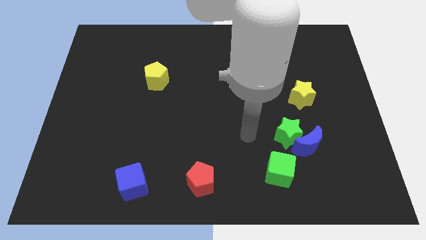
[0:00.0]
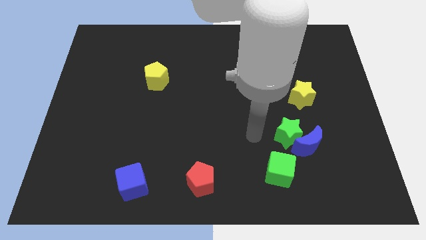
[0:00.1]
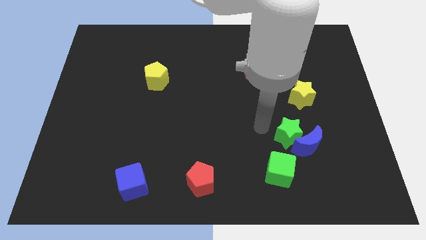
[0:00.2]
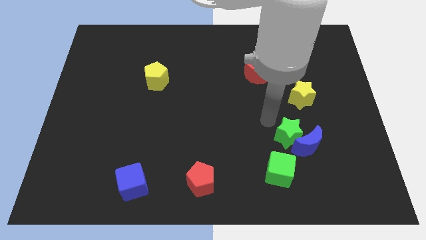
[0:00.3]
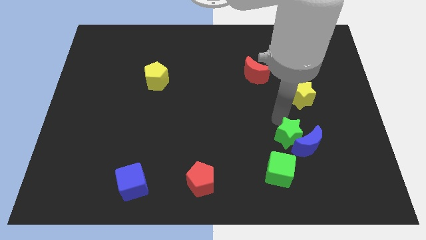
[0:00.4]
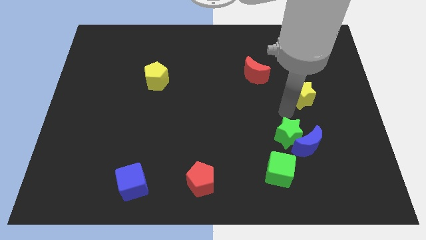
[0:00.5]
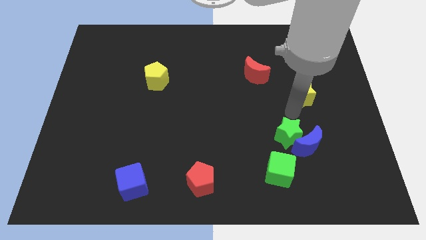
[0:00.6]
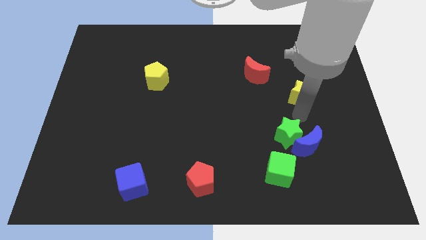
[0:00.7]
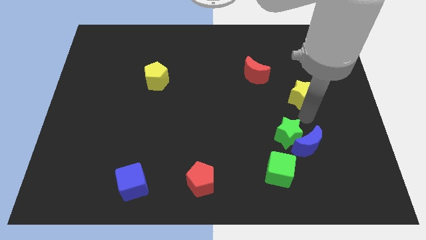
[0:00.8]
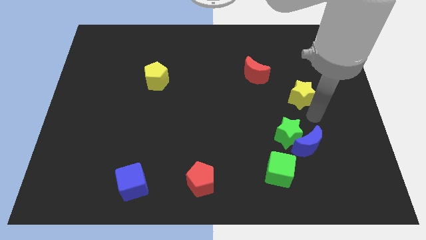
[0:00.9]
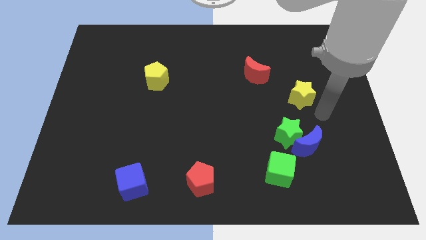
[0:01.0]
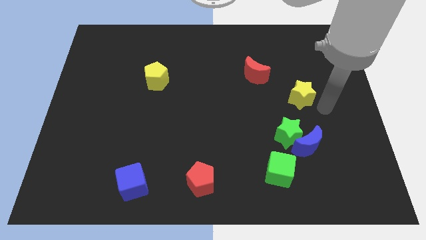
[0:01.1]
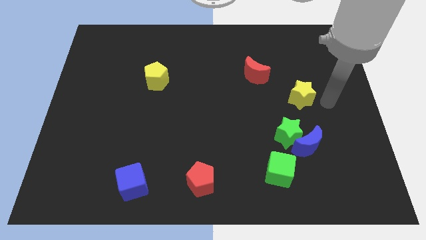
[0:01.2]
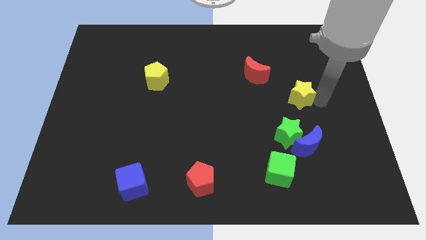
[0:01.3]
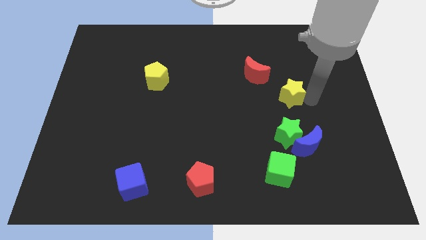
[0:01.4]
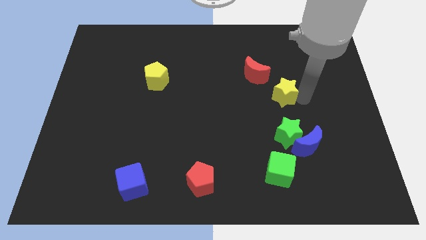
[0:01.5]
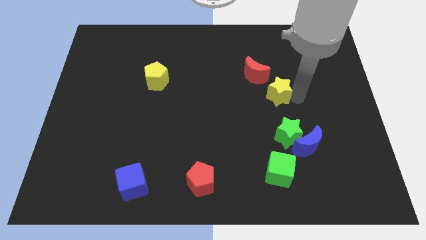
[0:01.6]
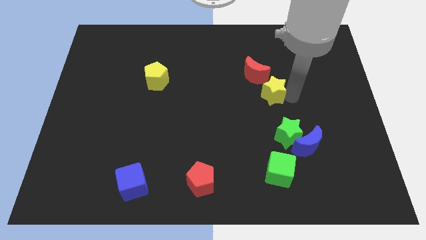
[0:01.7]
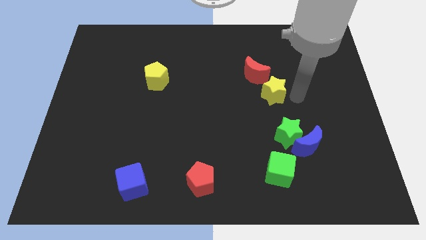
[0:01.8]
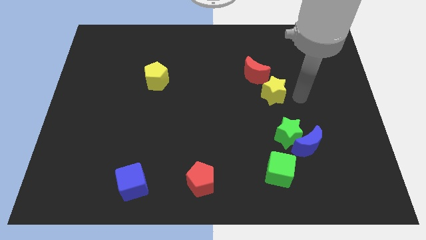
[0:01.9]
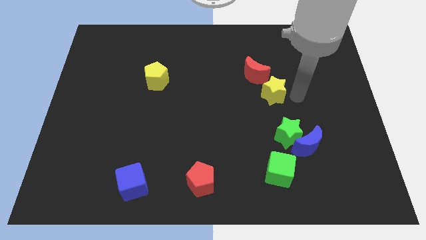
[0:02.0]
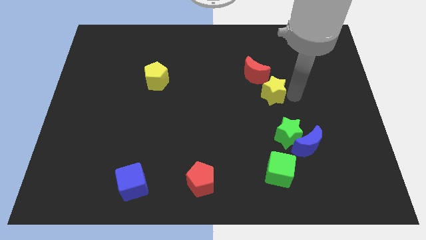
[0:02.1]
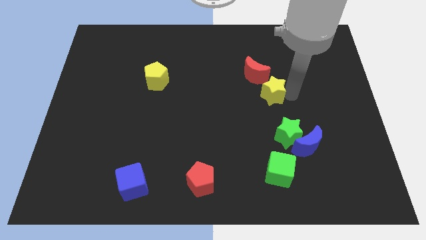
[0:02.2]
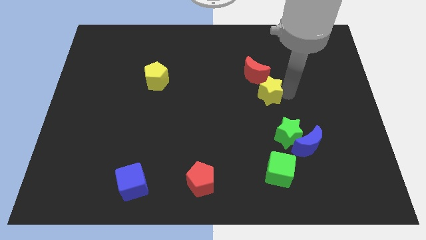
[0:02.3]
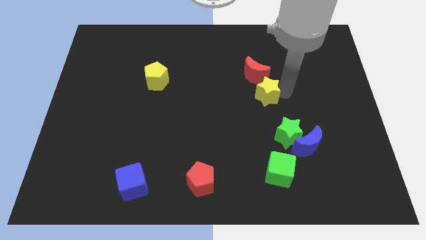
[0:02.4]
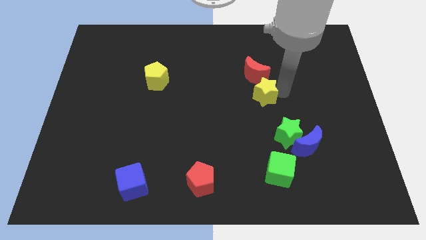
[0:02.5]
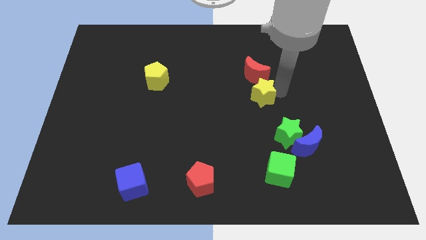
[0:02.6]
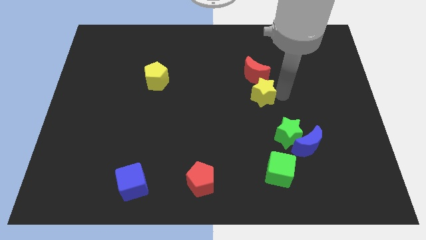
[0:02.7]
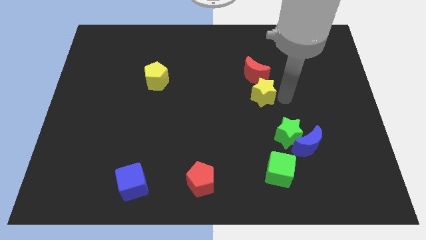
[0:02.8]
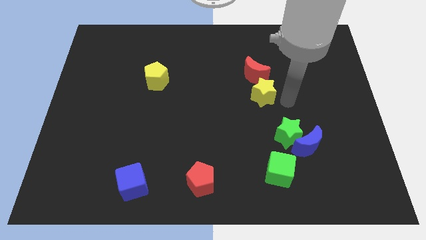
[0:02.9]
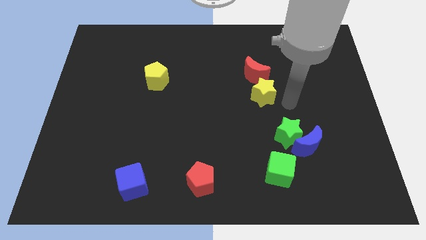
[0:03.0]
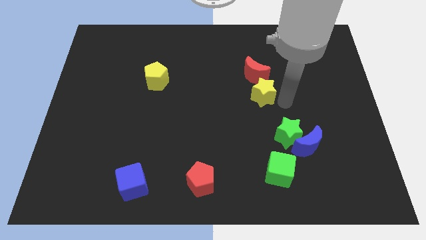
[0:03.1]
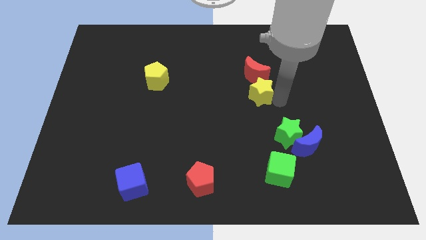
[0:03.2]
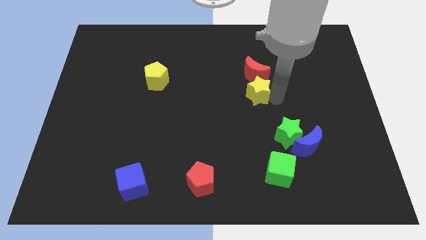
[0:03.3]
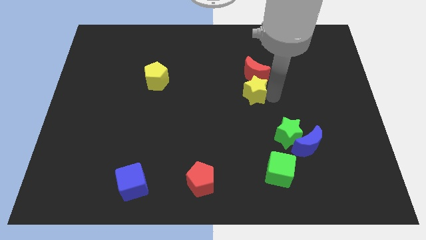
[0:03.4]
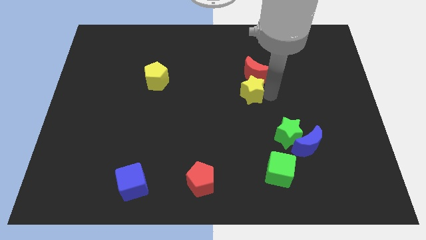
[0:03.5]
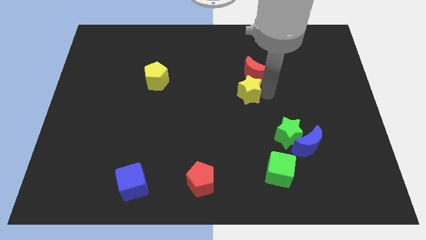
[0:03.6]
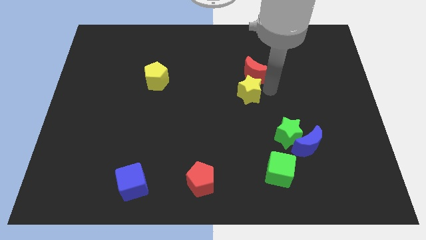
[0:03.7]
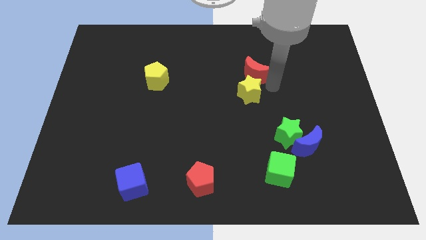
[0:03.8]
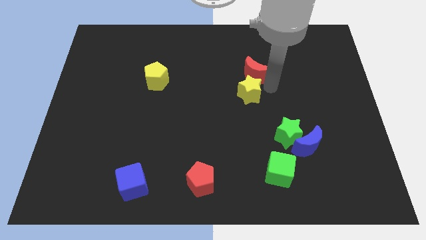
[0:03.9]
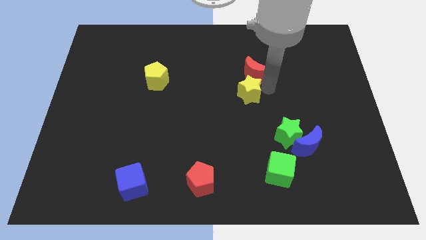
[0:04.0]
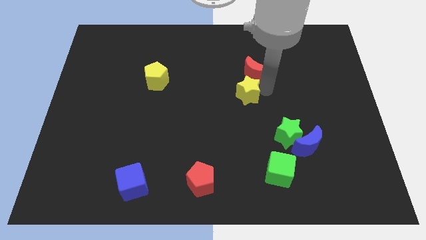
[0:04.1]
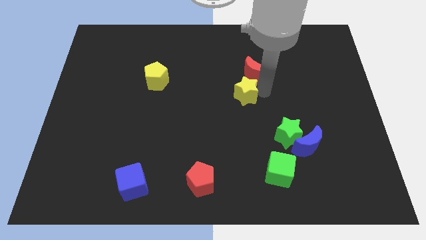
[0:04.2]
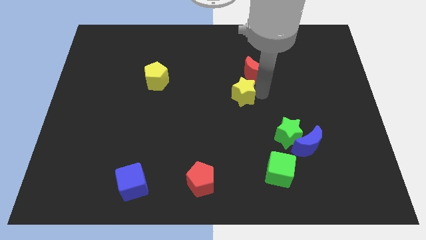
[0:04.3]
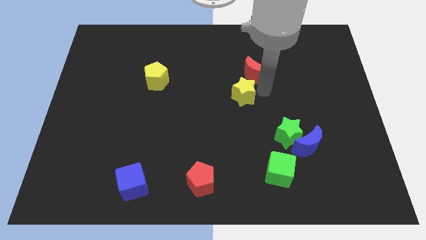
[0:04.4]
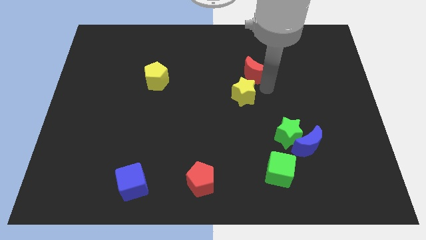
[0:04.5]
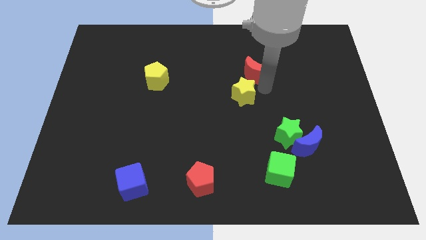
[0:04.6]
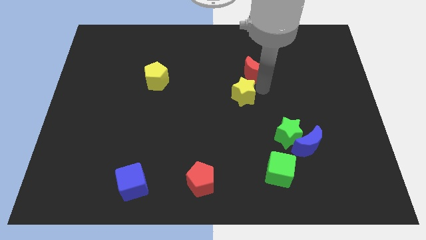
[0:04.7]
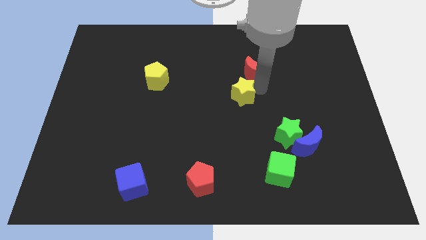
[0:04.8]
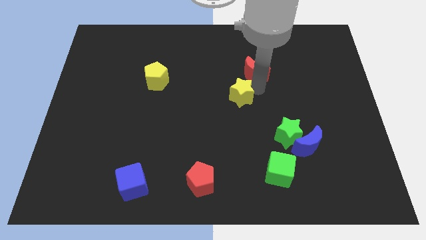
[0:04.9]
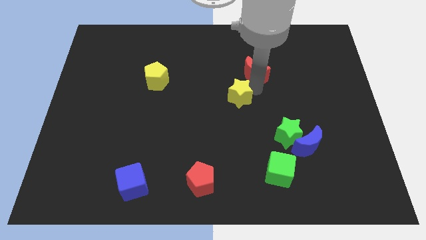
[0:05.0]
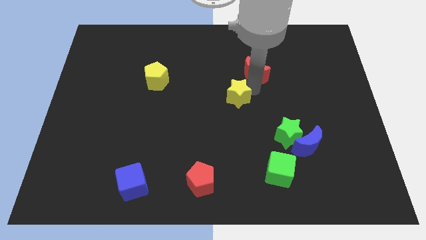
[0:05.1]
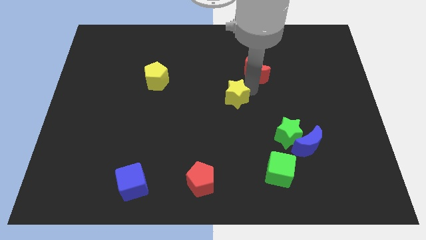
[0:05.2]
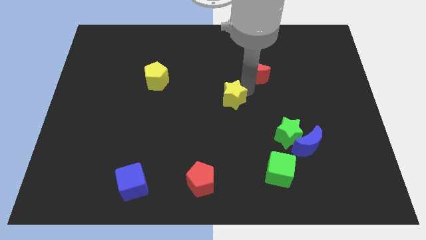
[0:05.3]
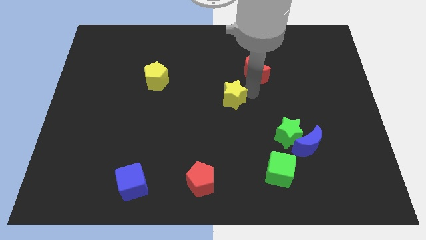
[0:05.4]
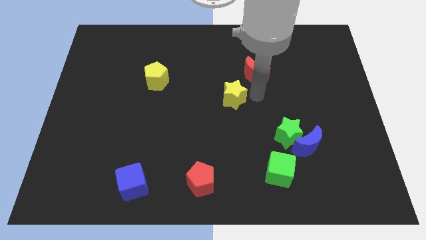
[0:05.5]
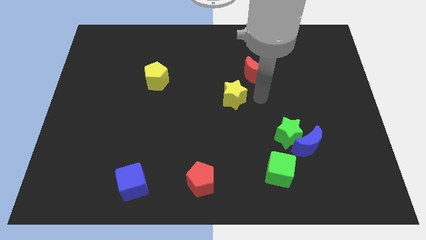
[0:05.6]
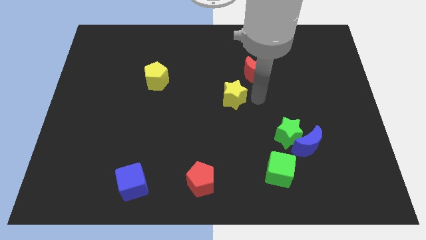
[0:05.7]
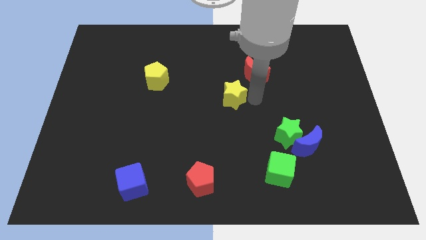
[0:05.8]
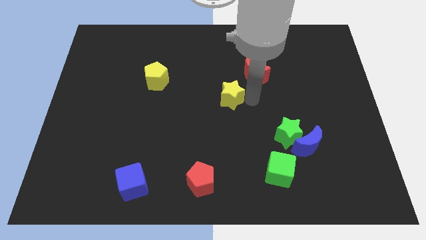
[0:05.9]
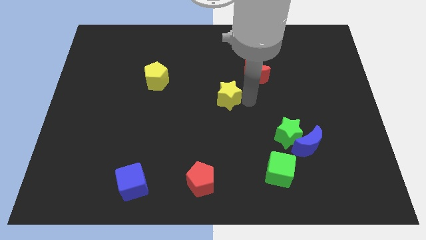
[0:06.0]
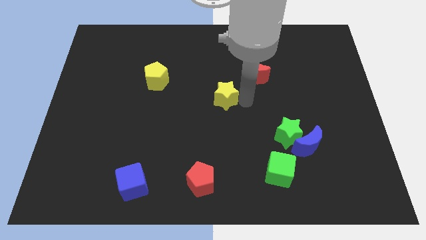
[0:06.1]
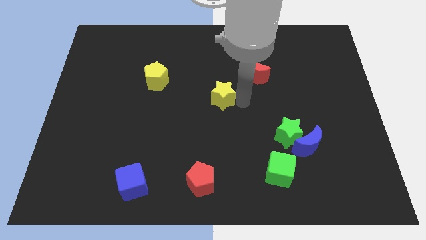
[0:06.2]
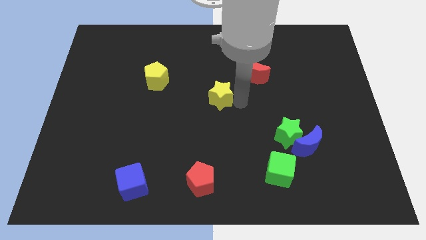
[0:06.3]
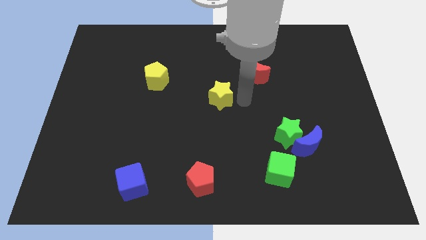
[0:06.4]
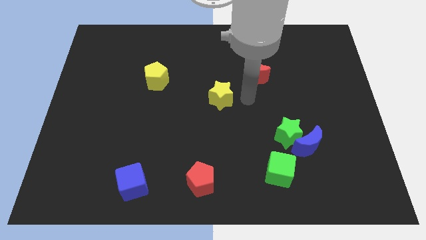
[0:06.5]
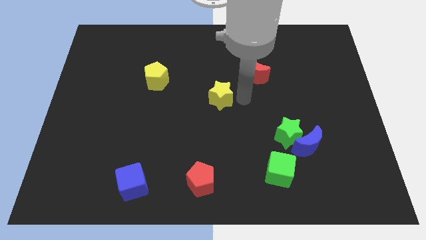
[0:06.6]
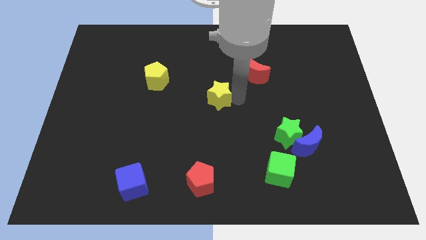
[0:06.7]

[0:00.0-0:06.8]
move the yellow star to the left

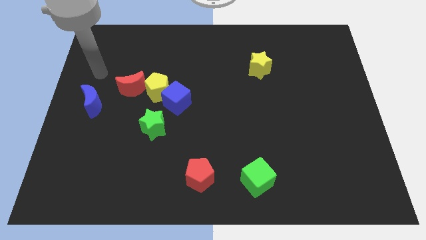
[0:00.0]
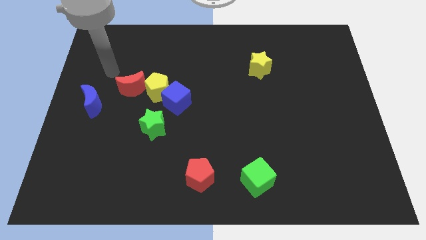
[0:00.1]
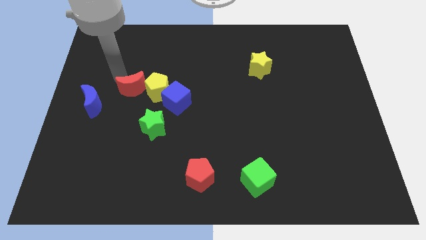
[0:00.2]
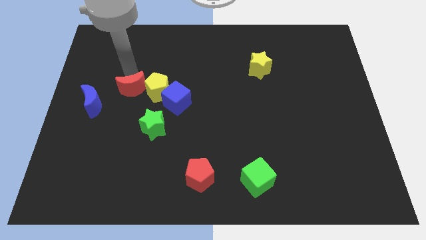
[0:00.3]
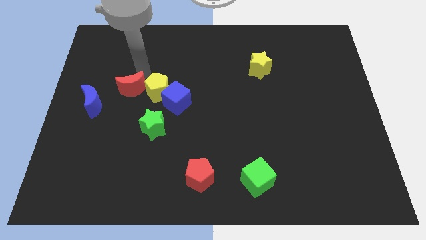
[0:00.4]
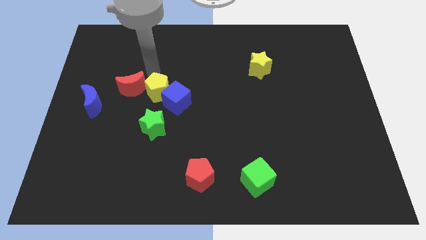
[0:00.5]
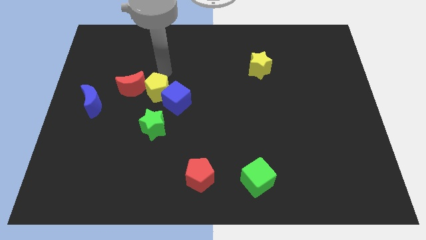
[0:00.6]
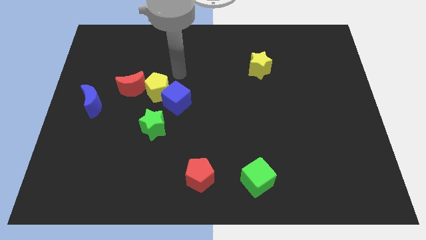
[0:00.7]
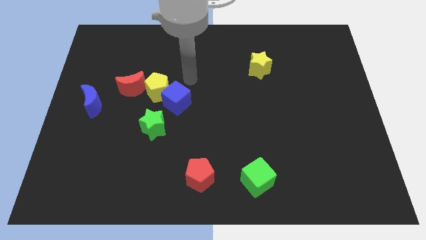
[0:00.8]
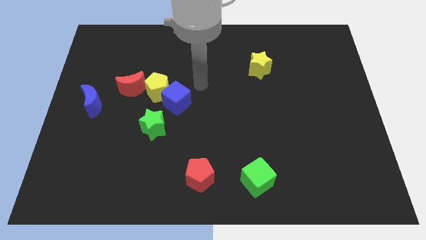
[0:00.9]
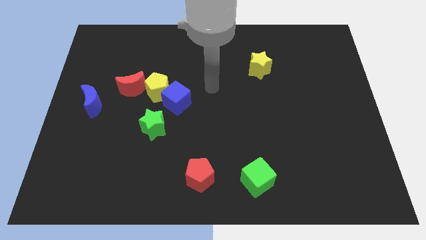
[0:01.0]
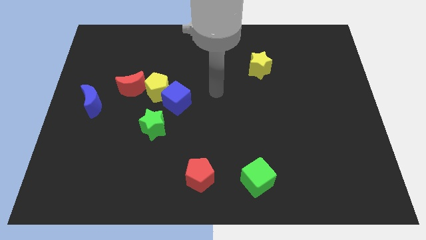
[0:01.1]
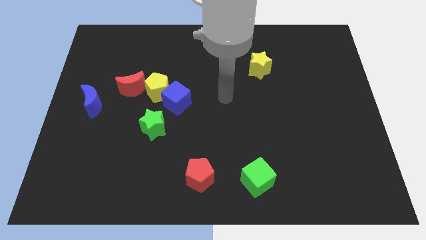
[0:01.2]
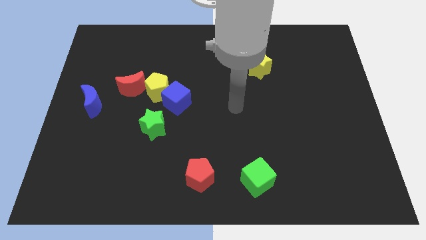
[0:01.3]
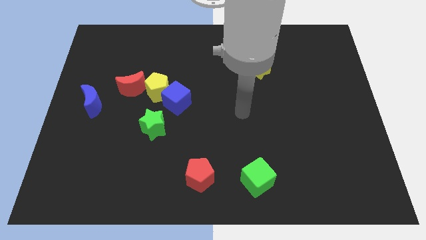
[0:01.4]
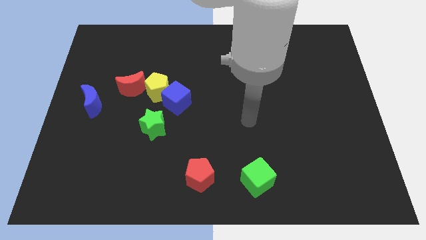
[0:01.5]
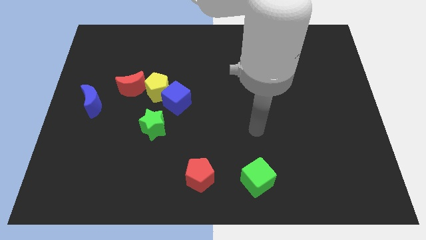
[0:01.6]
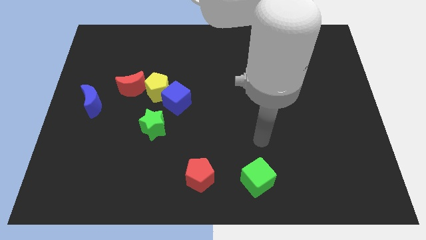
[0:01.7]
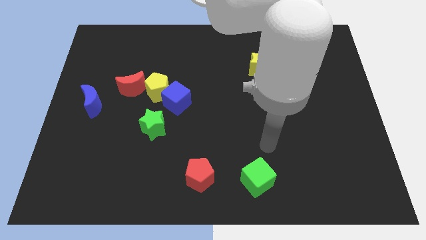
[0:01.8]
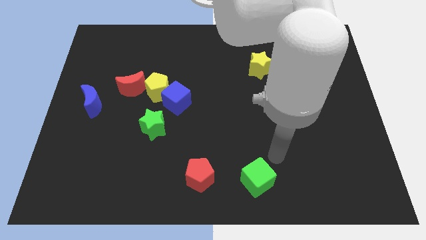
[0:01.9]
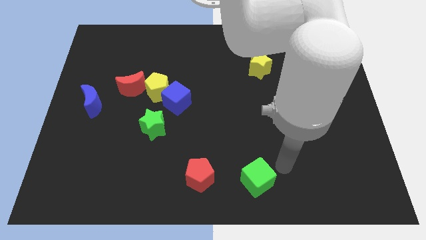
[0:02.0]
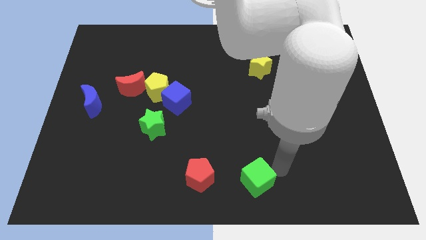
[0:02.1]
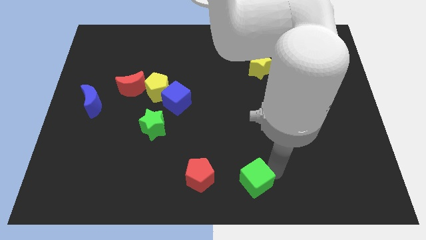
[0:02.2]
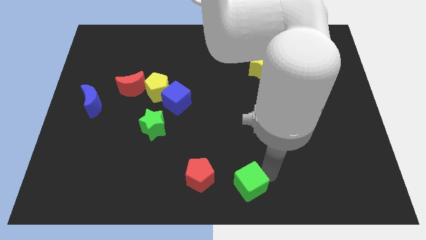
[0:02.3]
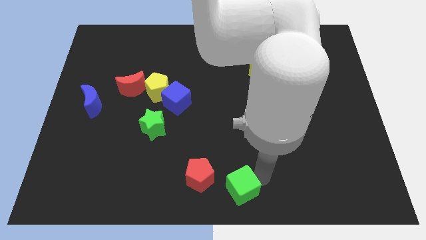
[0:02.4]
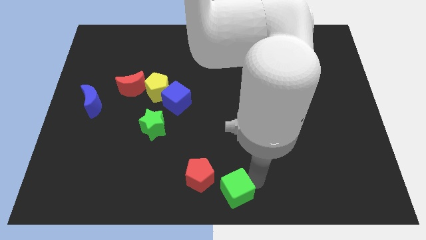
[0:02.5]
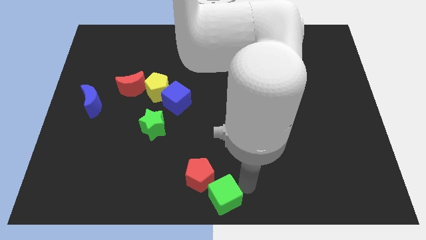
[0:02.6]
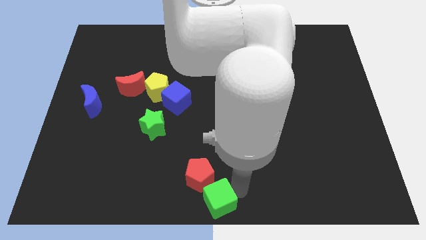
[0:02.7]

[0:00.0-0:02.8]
slightly push the green cube to the left
